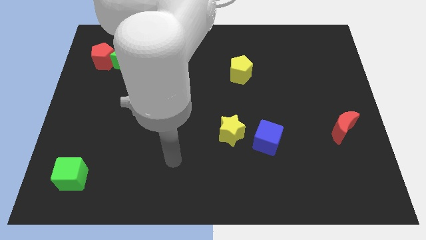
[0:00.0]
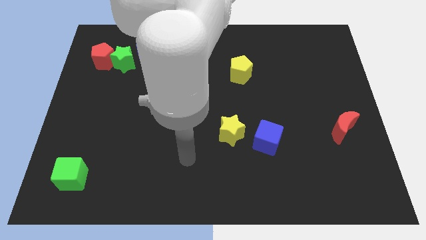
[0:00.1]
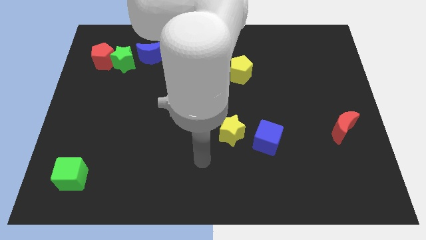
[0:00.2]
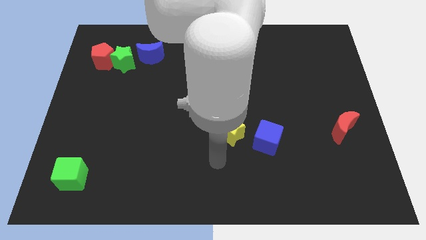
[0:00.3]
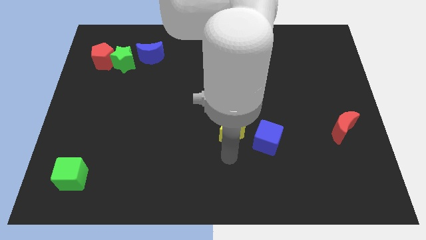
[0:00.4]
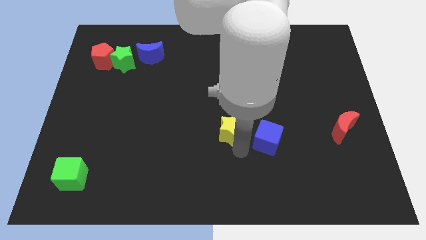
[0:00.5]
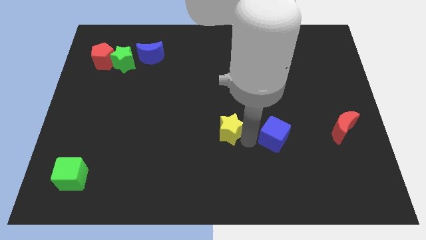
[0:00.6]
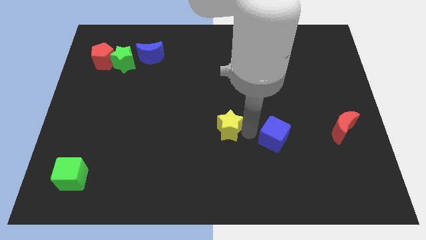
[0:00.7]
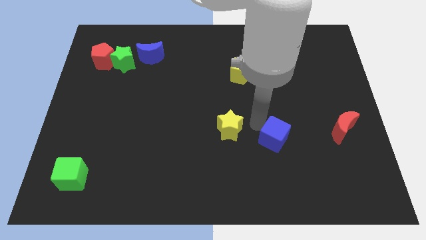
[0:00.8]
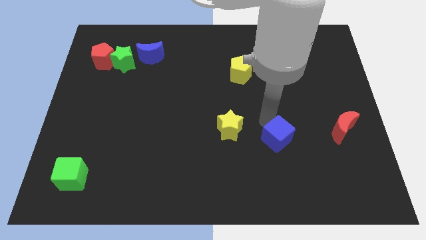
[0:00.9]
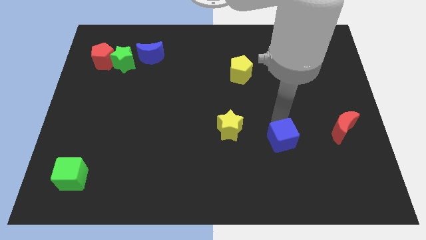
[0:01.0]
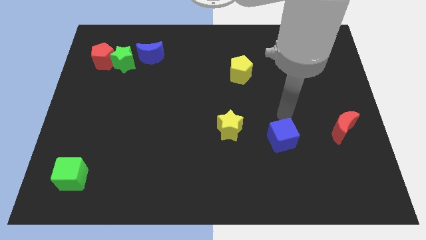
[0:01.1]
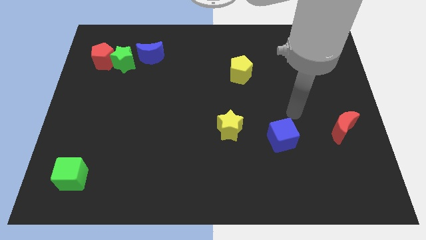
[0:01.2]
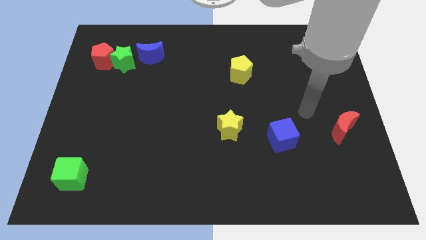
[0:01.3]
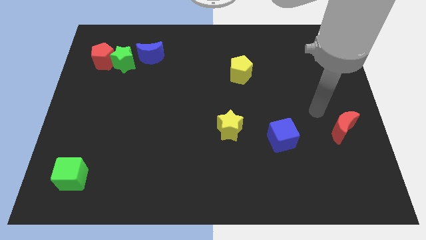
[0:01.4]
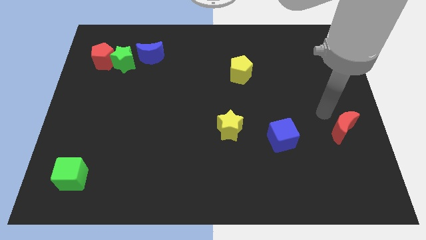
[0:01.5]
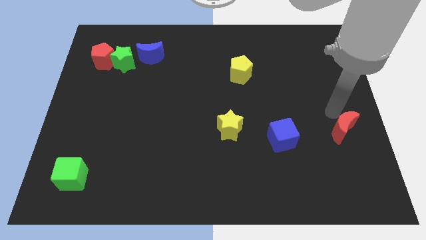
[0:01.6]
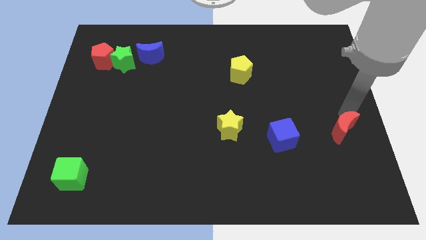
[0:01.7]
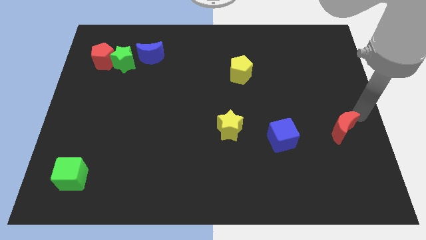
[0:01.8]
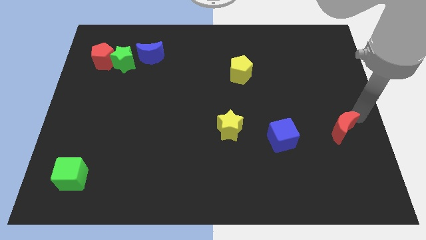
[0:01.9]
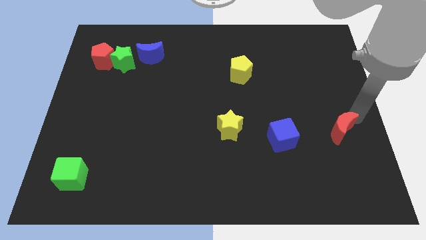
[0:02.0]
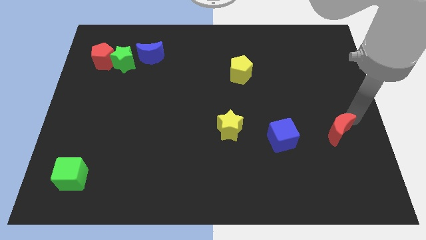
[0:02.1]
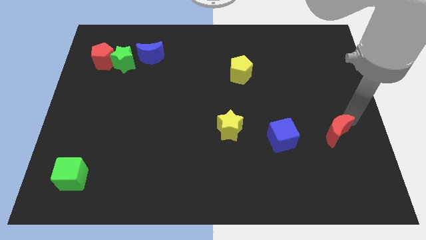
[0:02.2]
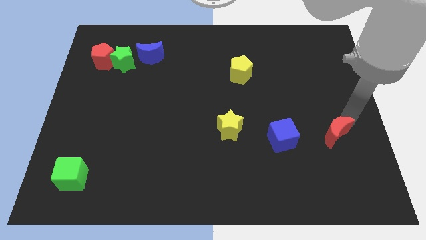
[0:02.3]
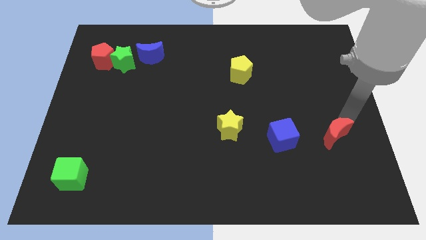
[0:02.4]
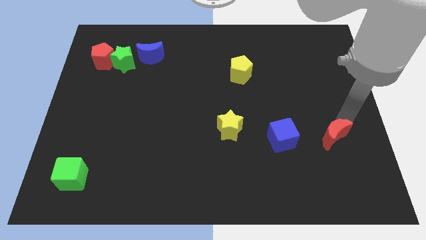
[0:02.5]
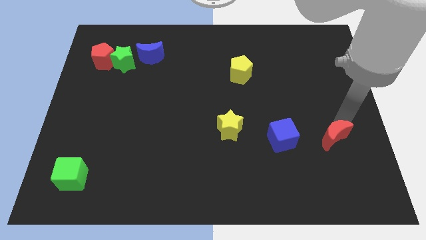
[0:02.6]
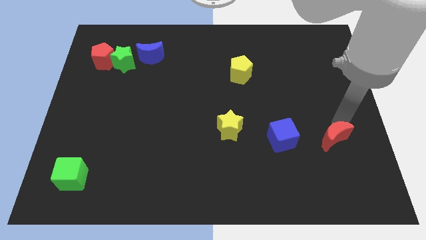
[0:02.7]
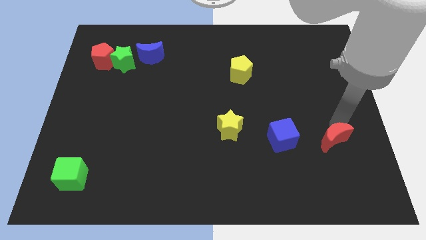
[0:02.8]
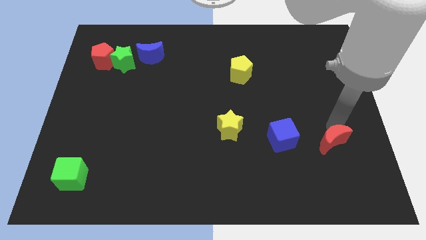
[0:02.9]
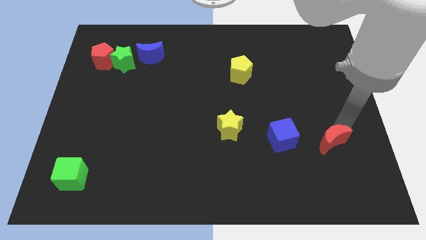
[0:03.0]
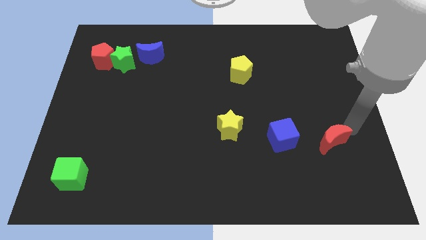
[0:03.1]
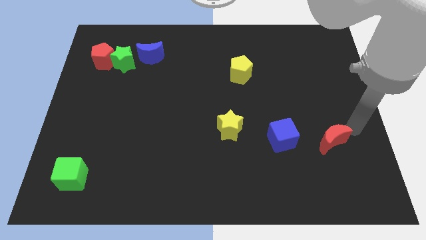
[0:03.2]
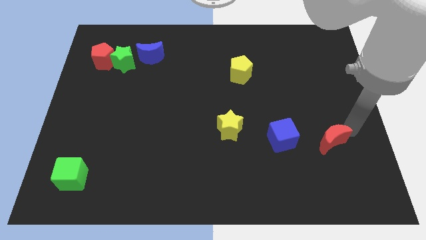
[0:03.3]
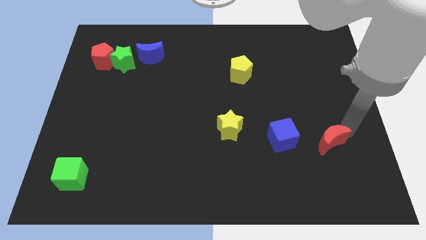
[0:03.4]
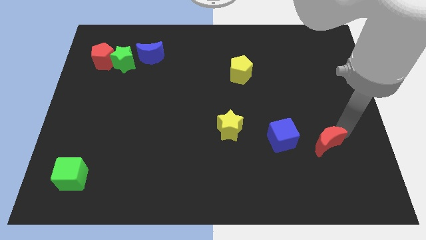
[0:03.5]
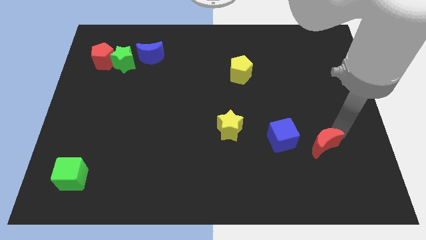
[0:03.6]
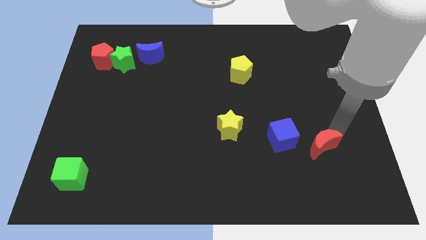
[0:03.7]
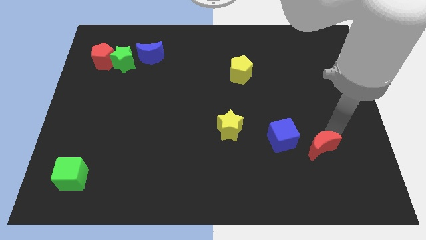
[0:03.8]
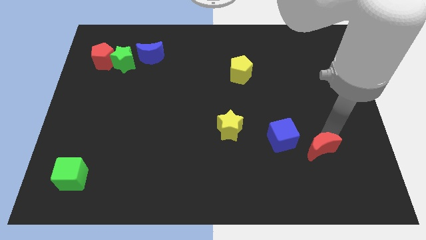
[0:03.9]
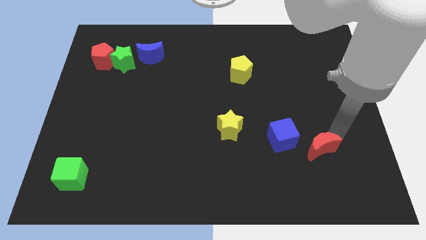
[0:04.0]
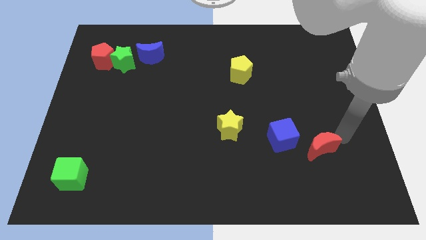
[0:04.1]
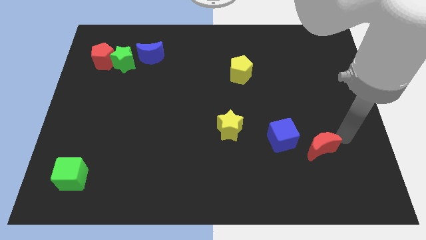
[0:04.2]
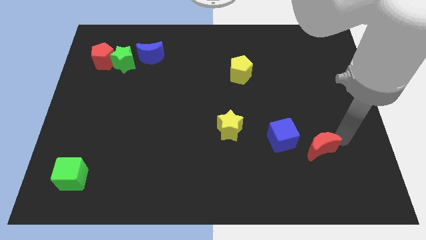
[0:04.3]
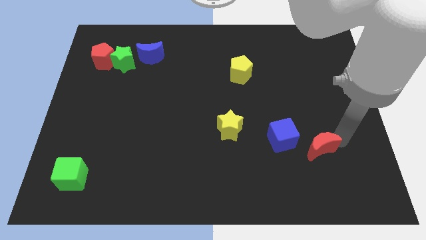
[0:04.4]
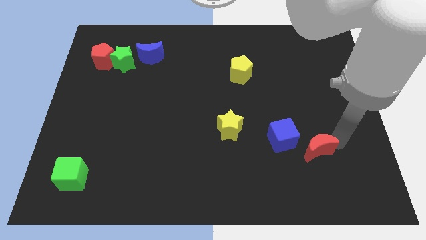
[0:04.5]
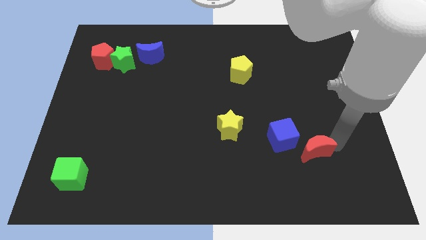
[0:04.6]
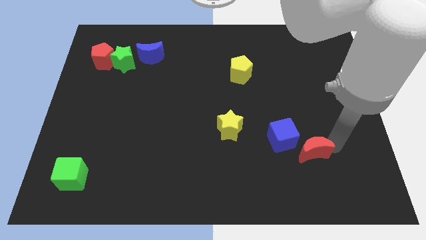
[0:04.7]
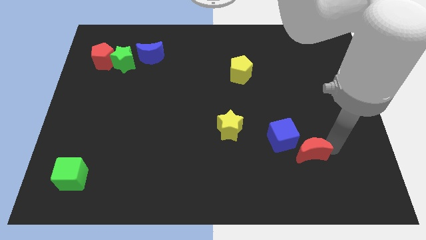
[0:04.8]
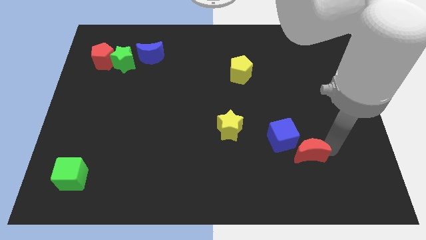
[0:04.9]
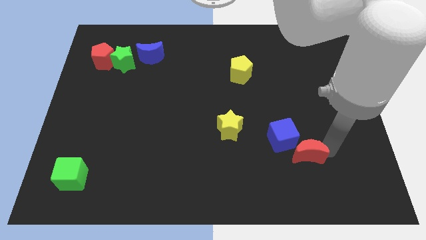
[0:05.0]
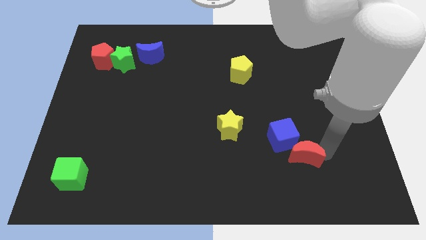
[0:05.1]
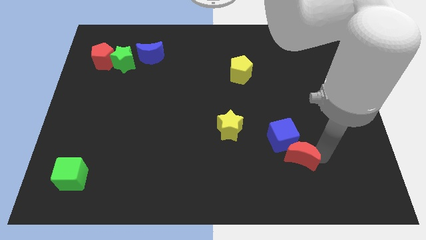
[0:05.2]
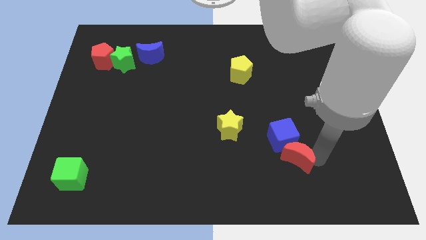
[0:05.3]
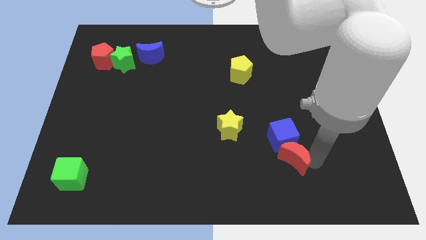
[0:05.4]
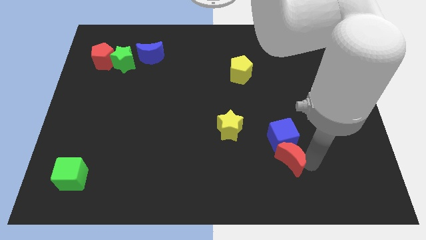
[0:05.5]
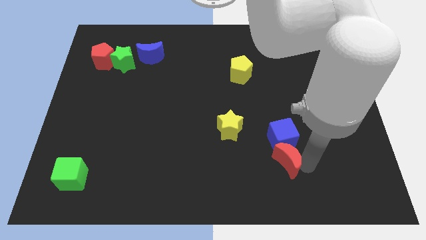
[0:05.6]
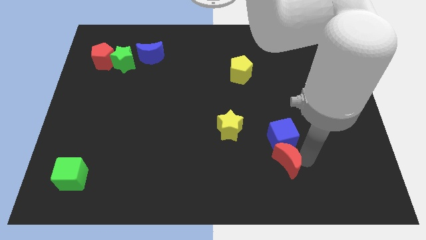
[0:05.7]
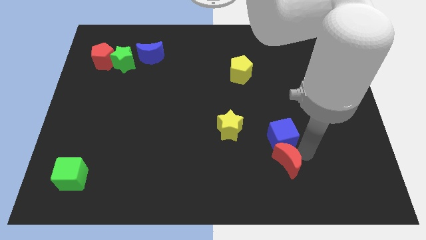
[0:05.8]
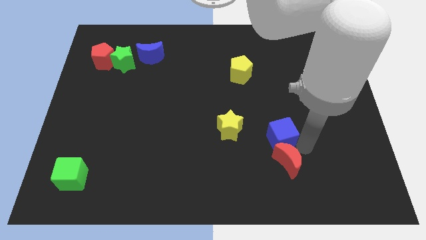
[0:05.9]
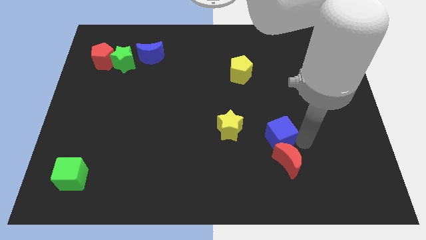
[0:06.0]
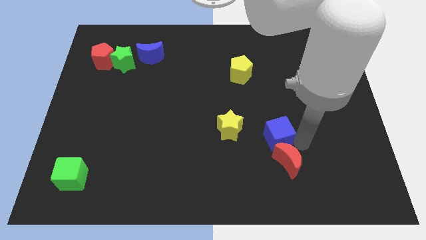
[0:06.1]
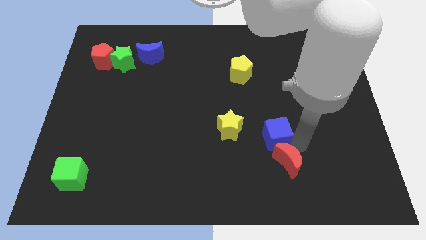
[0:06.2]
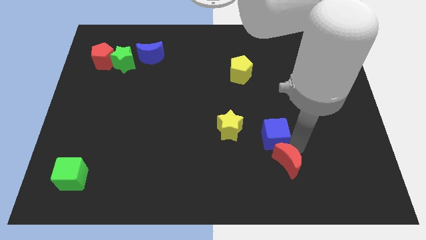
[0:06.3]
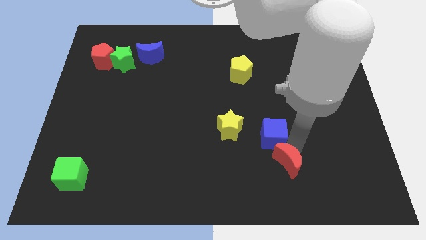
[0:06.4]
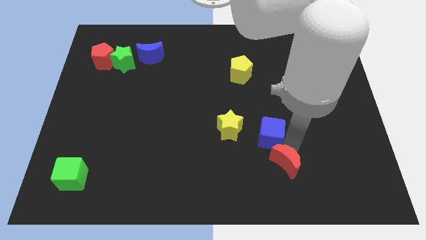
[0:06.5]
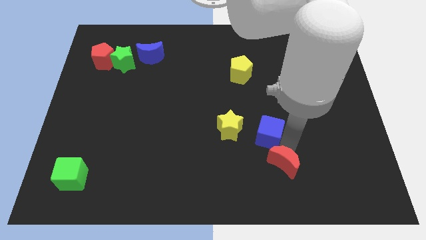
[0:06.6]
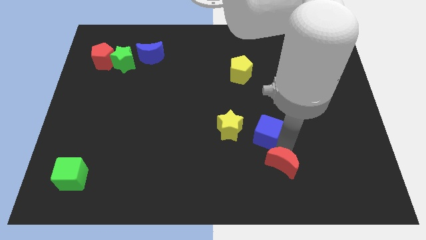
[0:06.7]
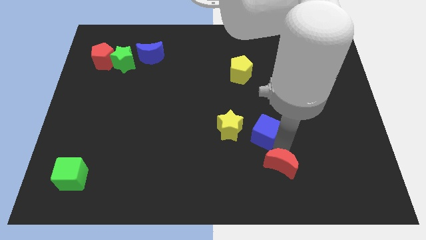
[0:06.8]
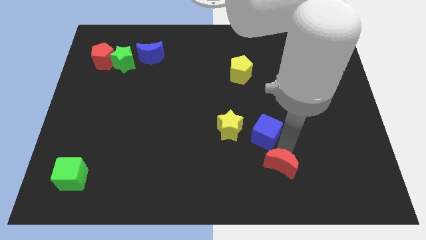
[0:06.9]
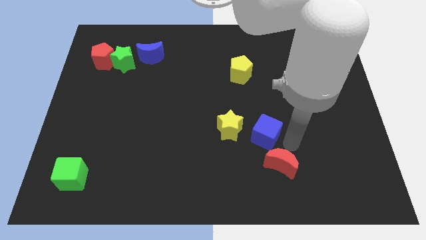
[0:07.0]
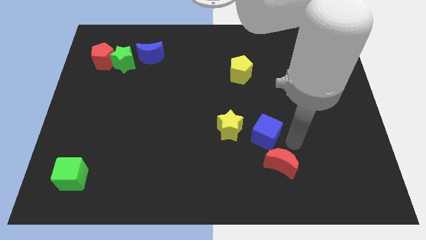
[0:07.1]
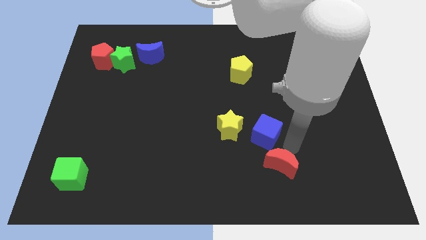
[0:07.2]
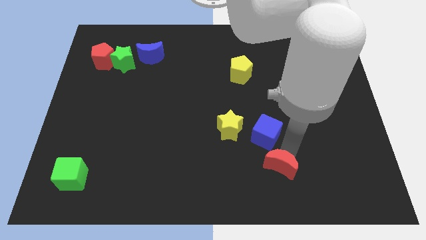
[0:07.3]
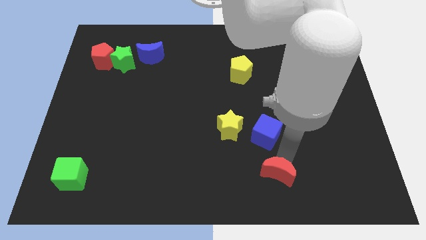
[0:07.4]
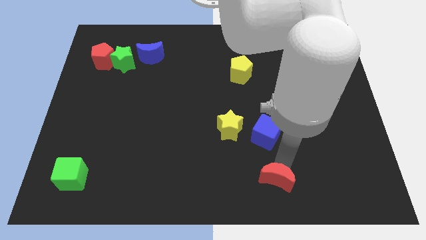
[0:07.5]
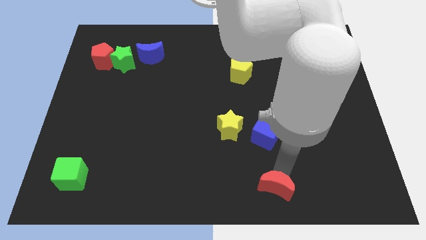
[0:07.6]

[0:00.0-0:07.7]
move the red moon to the bottom side
